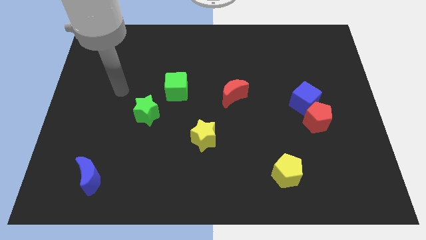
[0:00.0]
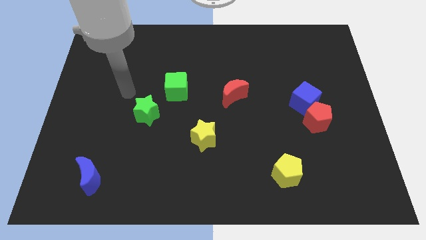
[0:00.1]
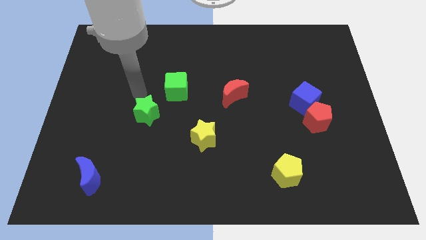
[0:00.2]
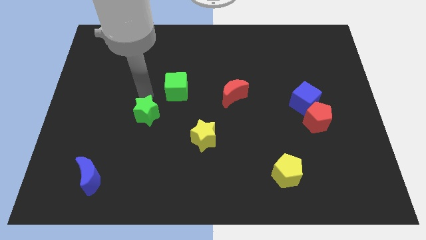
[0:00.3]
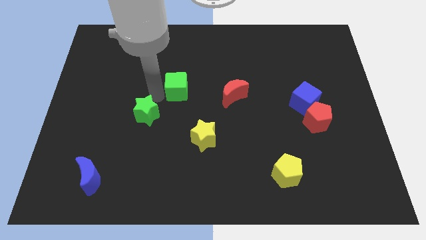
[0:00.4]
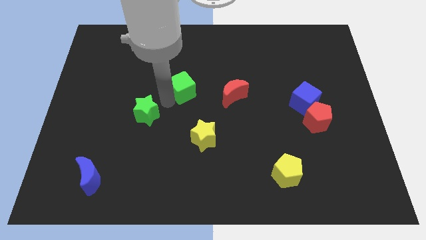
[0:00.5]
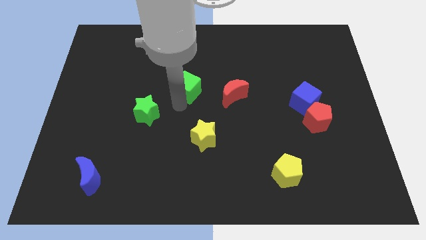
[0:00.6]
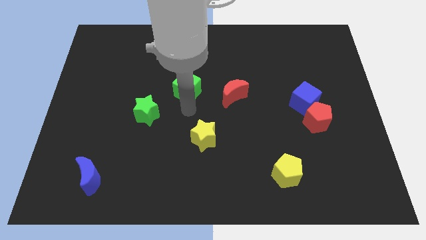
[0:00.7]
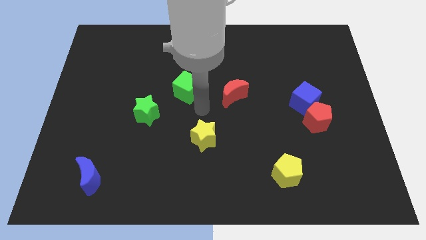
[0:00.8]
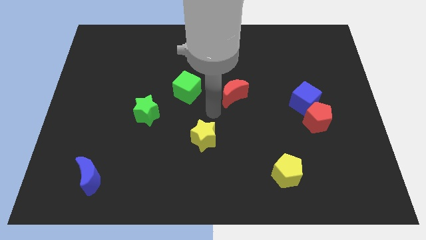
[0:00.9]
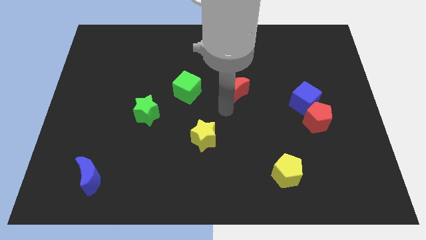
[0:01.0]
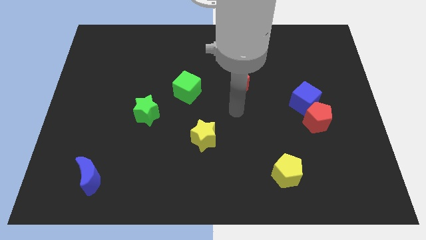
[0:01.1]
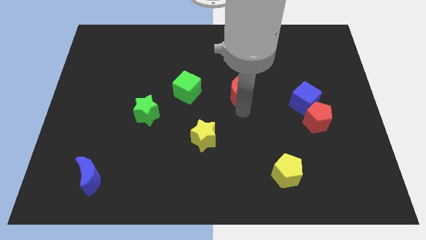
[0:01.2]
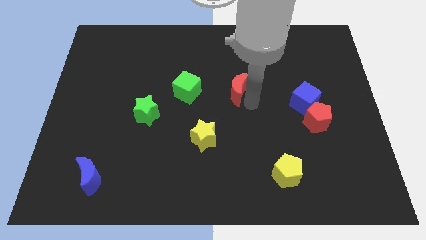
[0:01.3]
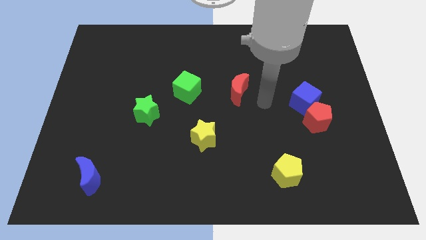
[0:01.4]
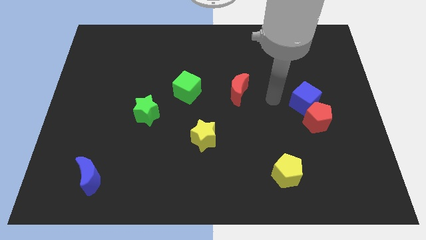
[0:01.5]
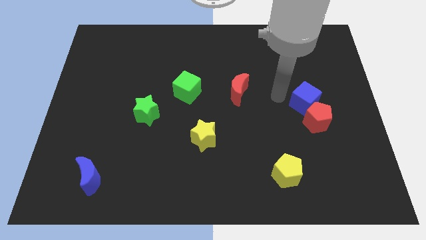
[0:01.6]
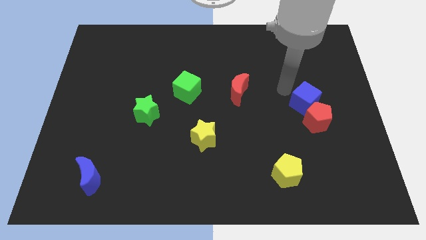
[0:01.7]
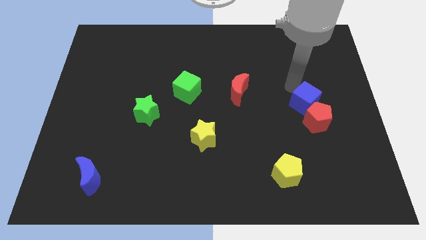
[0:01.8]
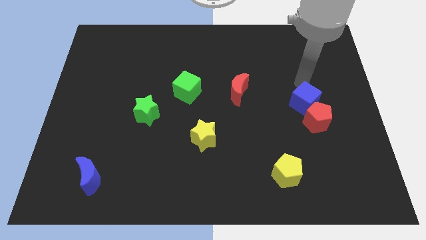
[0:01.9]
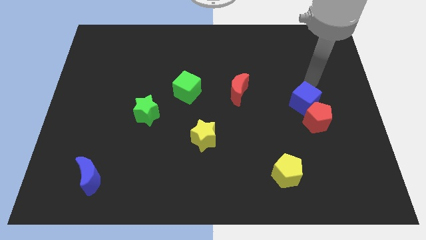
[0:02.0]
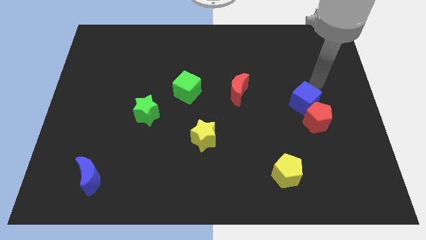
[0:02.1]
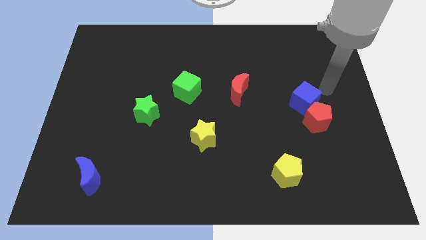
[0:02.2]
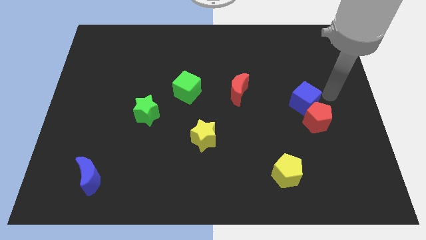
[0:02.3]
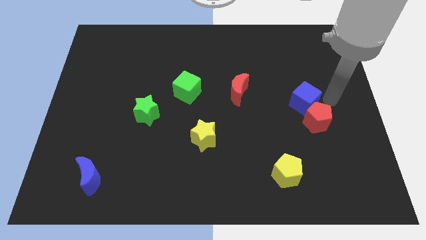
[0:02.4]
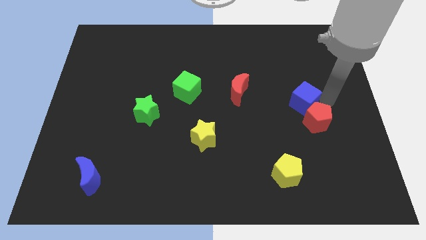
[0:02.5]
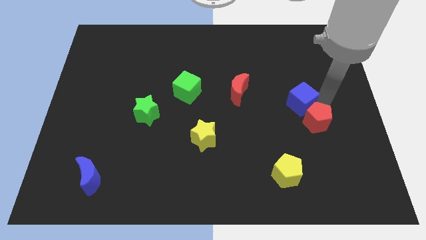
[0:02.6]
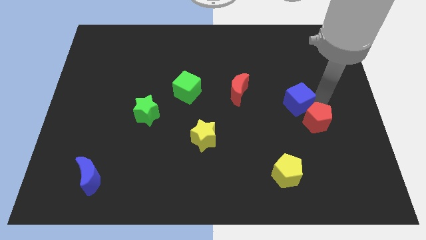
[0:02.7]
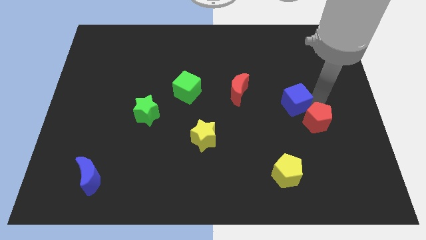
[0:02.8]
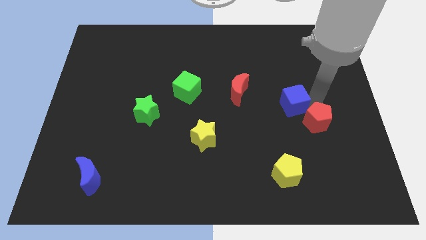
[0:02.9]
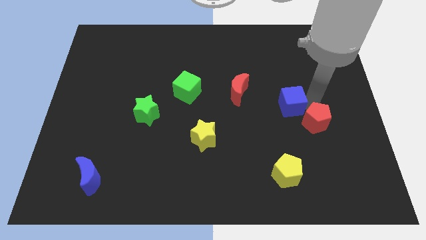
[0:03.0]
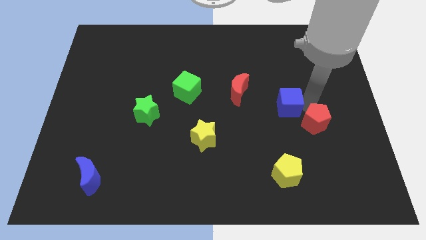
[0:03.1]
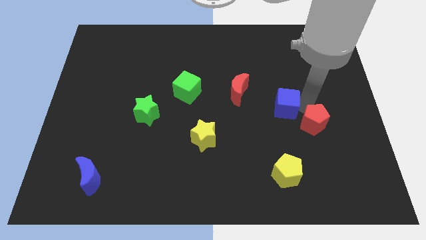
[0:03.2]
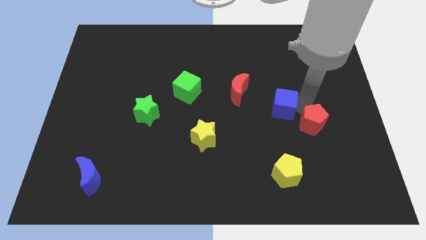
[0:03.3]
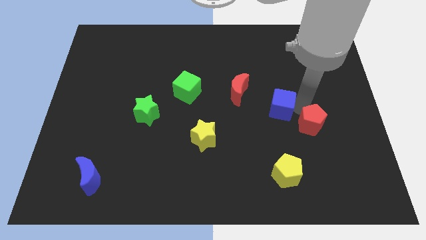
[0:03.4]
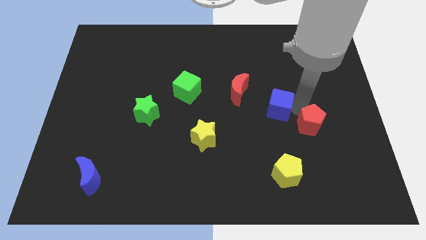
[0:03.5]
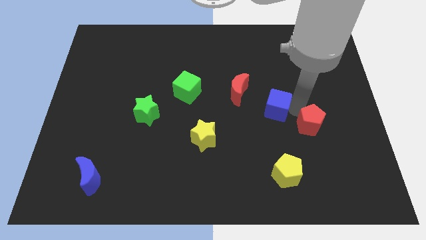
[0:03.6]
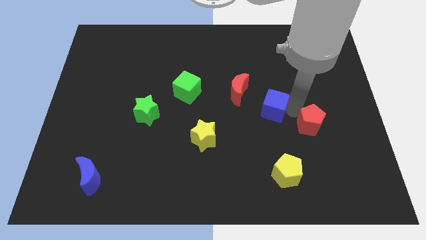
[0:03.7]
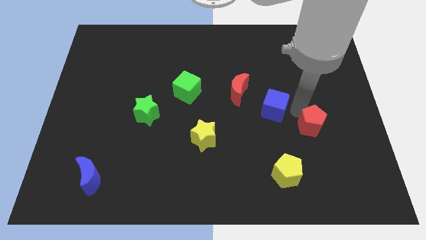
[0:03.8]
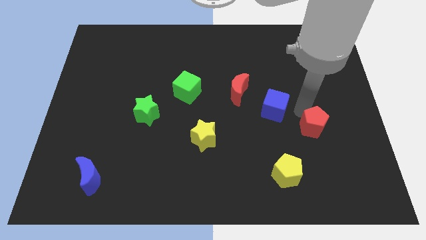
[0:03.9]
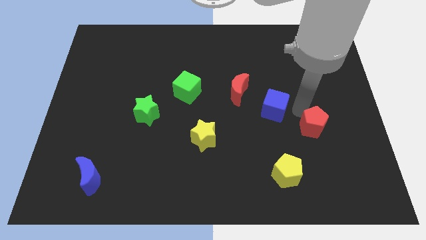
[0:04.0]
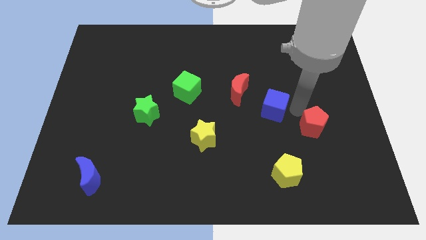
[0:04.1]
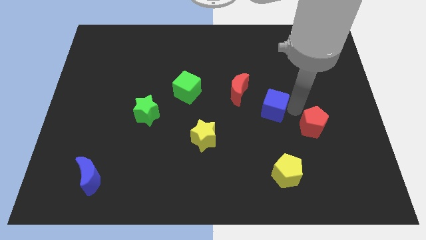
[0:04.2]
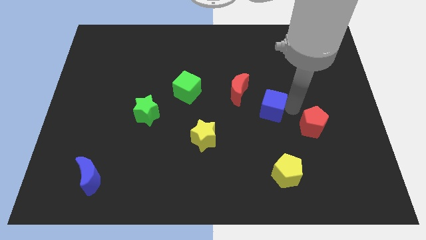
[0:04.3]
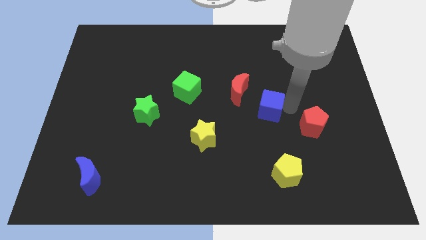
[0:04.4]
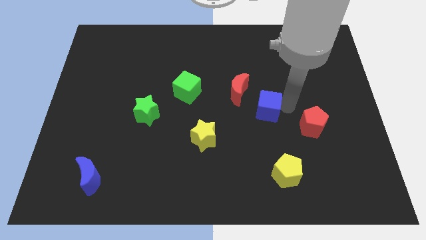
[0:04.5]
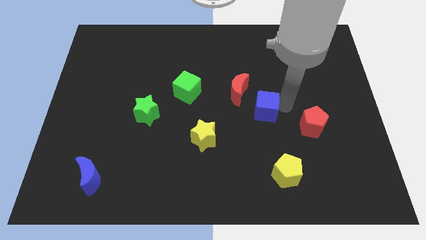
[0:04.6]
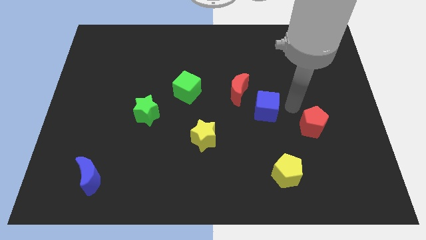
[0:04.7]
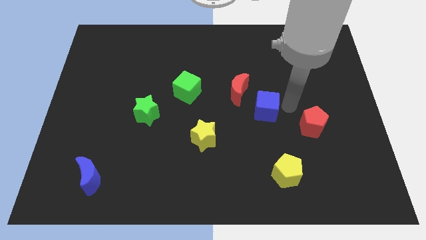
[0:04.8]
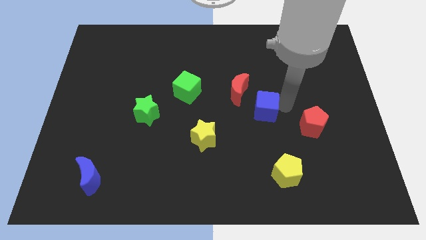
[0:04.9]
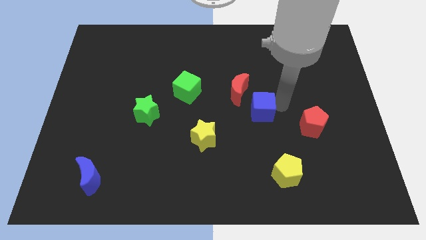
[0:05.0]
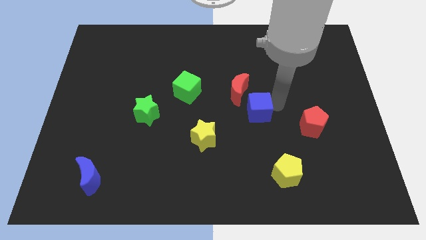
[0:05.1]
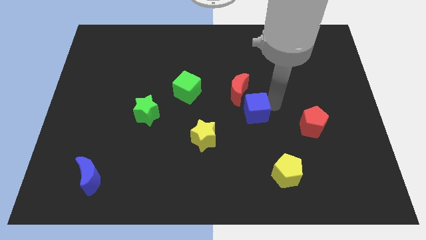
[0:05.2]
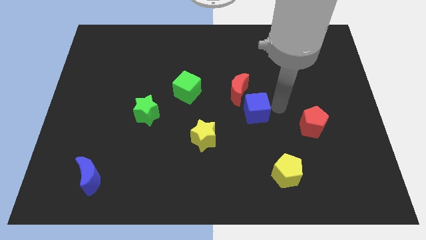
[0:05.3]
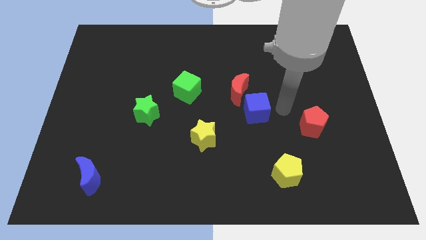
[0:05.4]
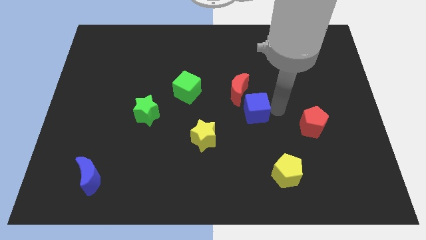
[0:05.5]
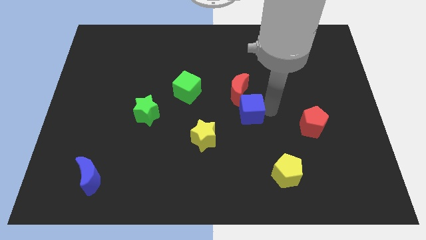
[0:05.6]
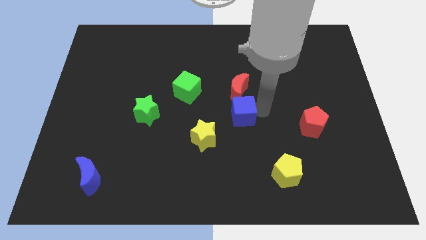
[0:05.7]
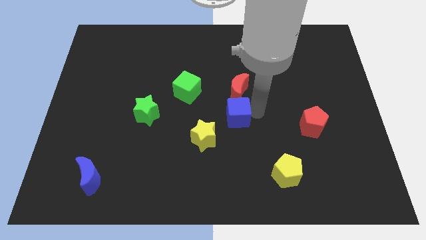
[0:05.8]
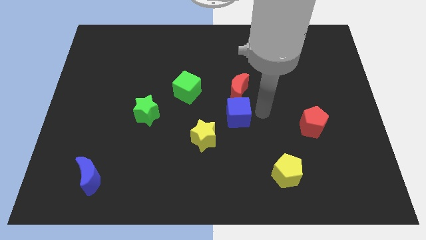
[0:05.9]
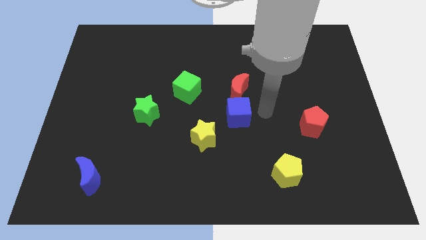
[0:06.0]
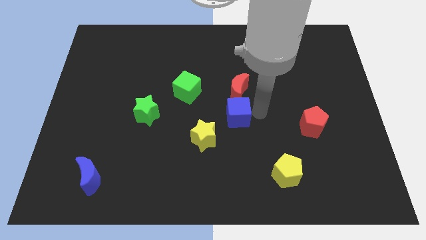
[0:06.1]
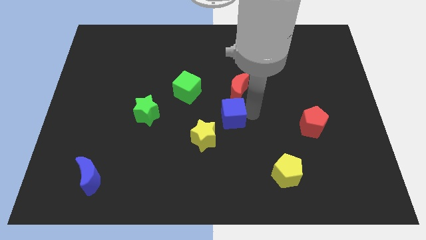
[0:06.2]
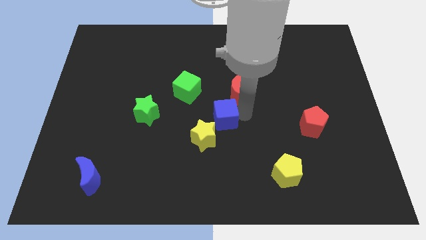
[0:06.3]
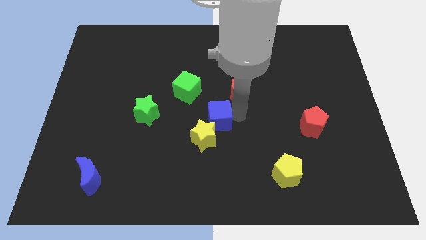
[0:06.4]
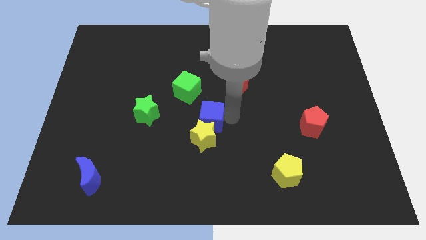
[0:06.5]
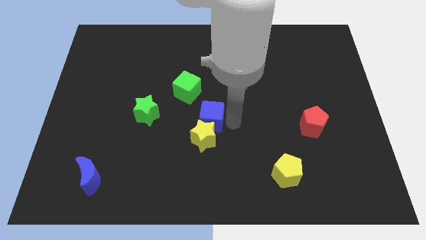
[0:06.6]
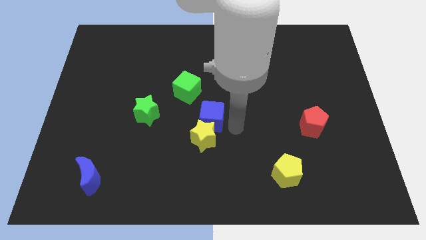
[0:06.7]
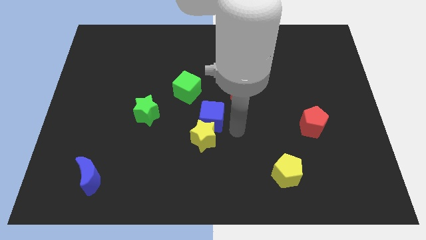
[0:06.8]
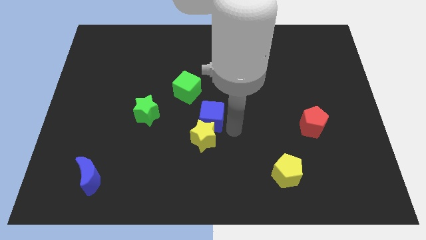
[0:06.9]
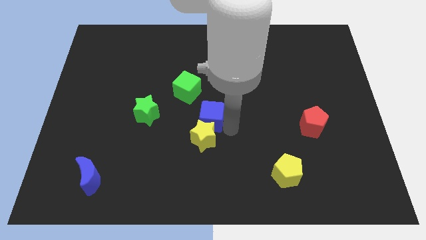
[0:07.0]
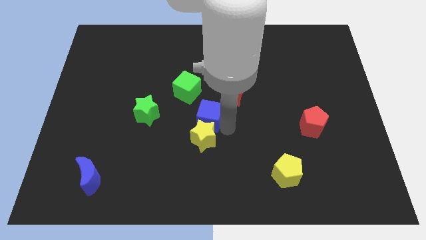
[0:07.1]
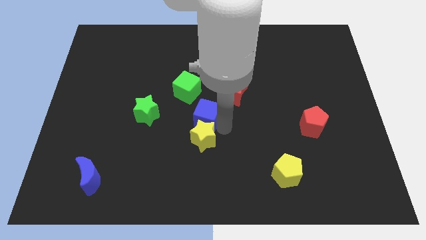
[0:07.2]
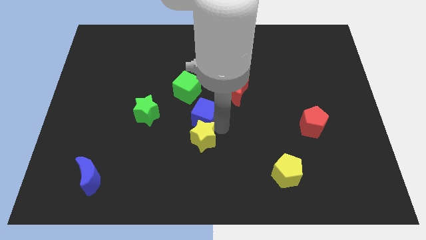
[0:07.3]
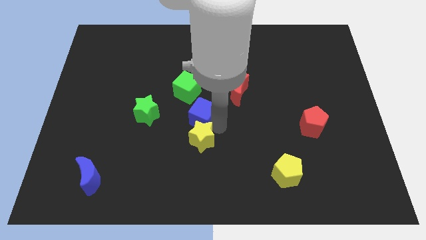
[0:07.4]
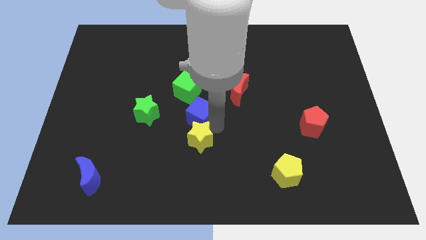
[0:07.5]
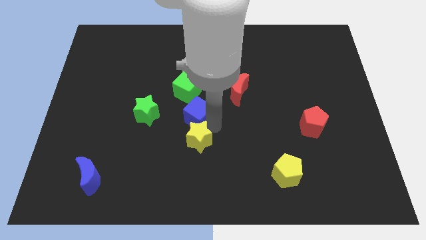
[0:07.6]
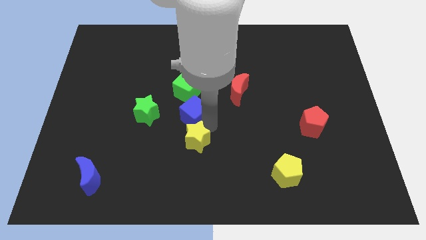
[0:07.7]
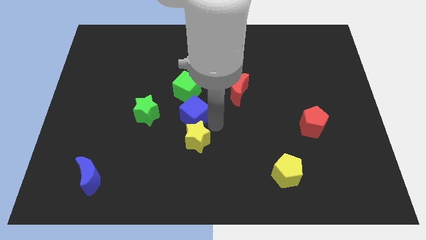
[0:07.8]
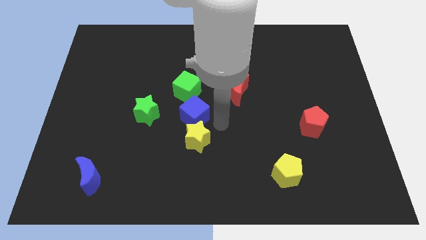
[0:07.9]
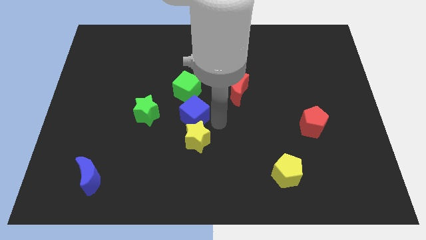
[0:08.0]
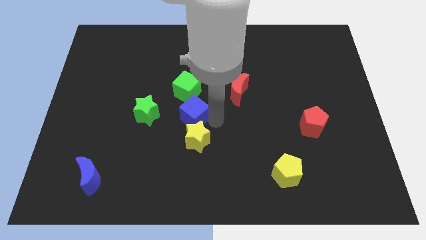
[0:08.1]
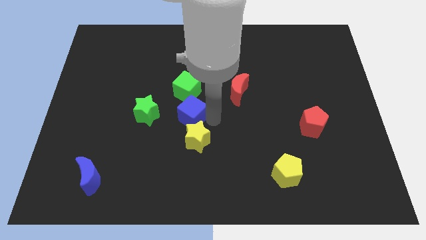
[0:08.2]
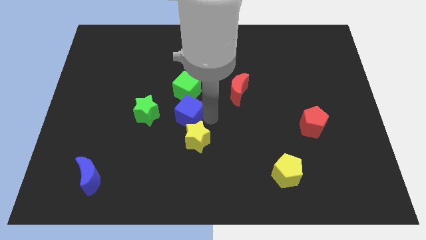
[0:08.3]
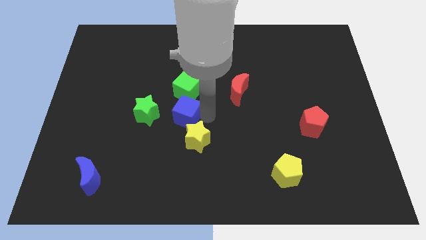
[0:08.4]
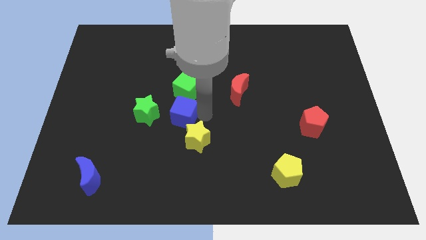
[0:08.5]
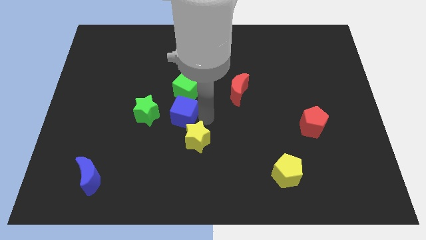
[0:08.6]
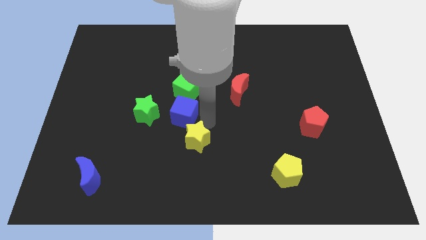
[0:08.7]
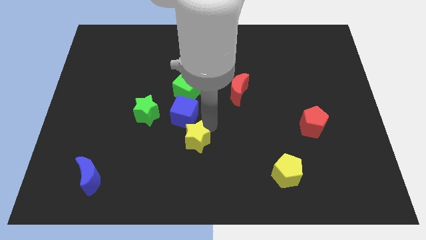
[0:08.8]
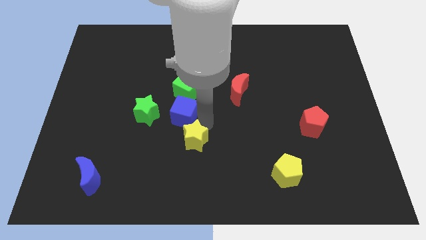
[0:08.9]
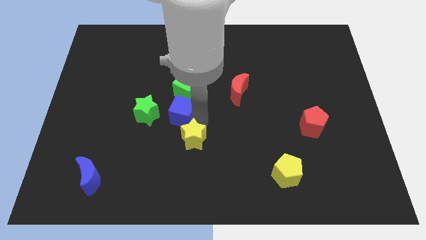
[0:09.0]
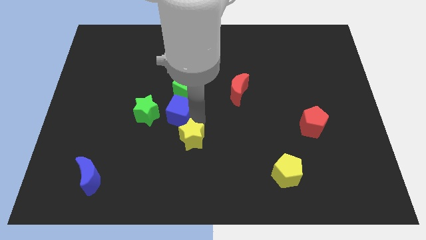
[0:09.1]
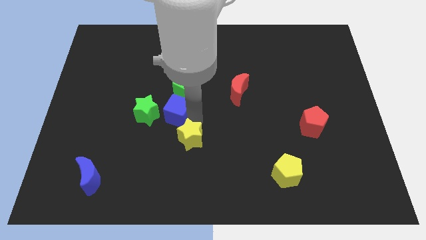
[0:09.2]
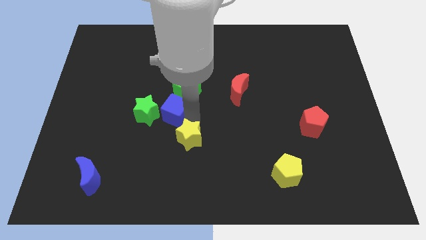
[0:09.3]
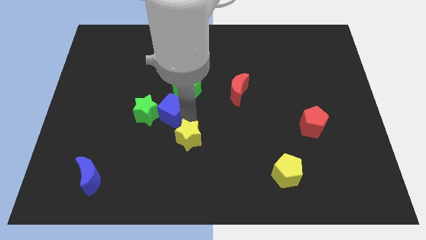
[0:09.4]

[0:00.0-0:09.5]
slide the blue cube towards the green star
